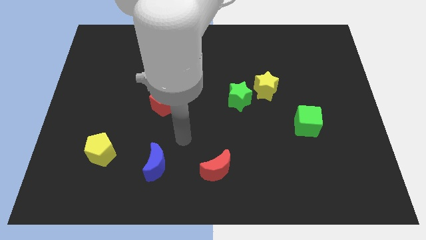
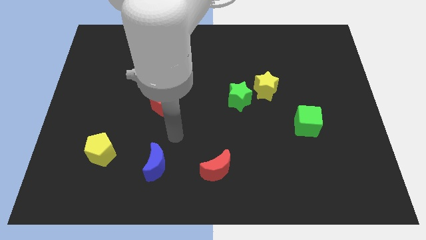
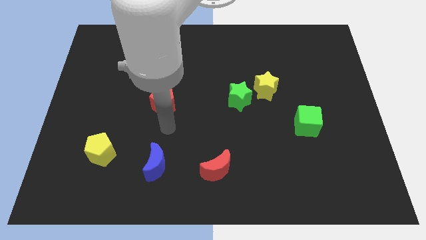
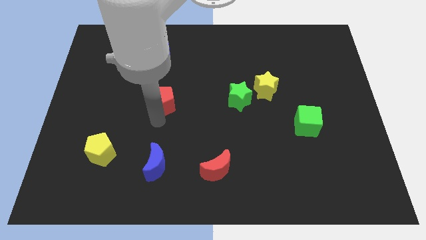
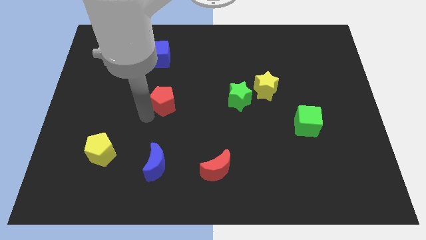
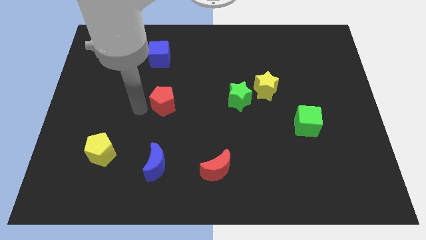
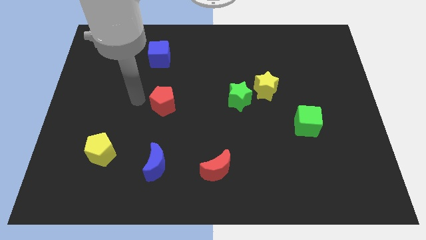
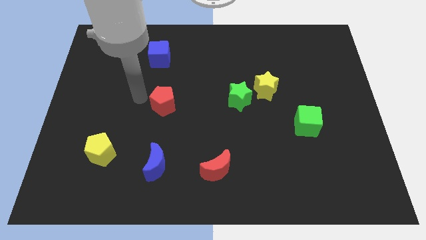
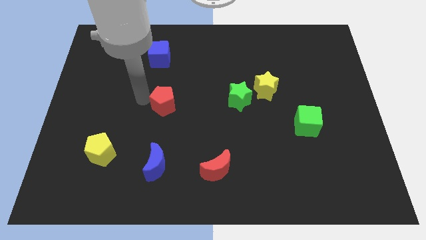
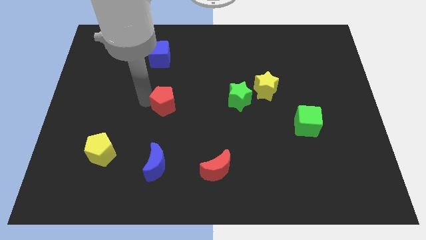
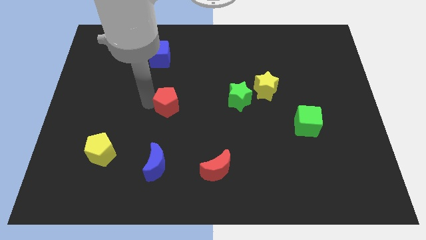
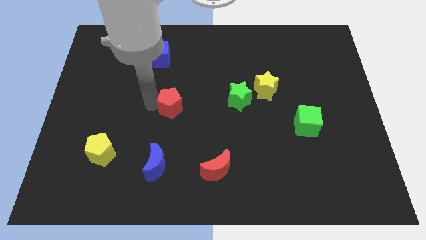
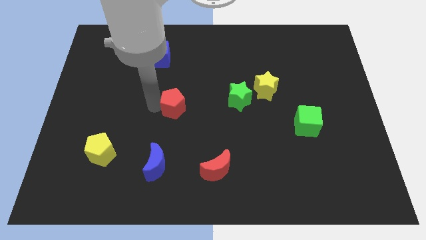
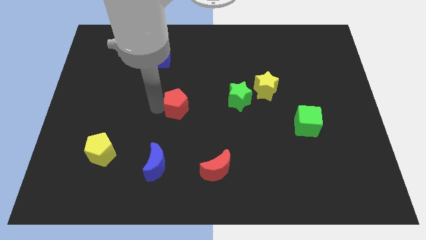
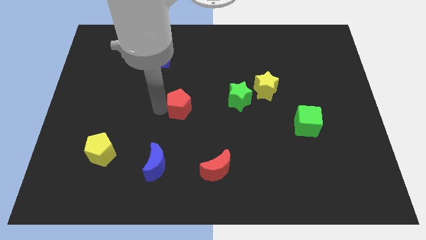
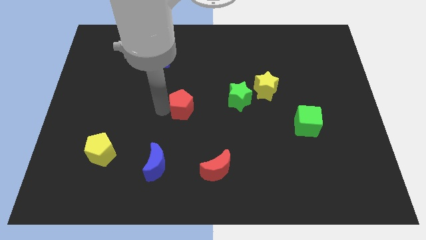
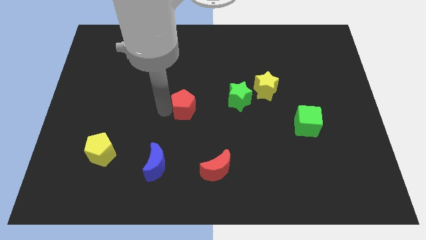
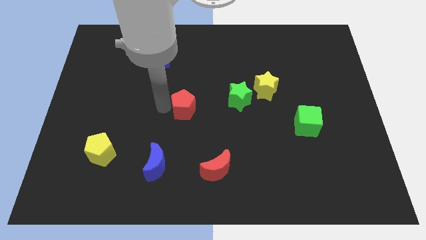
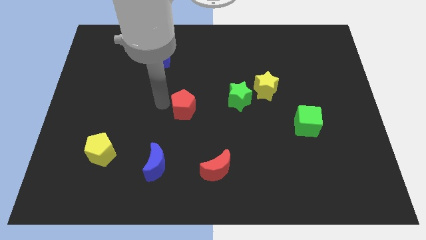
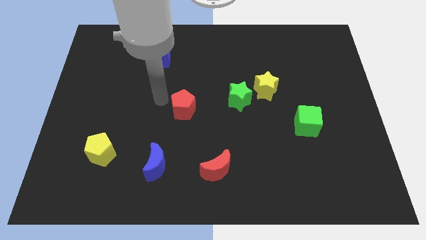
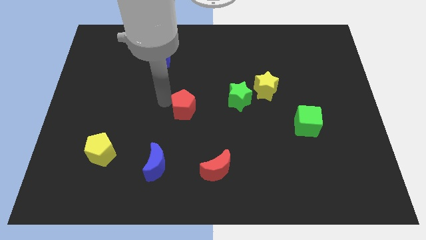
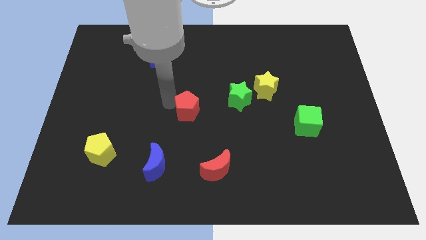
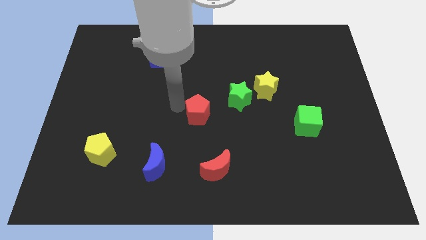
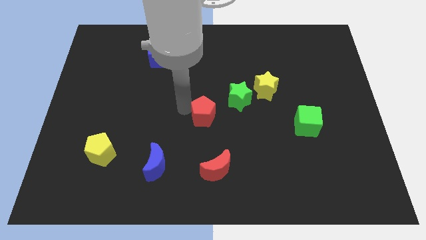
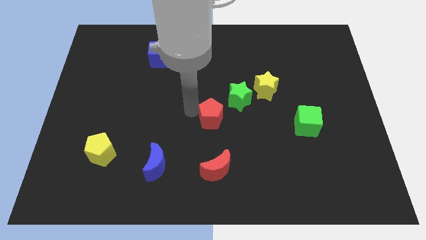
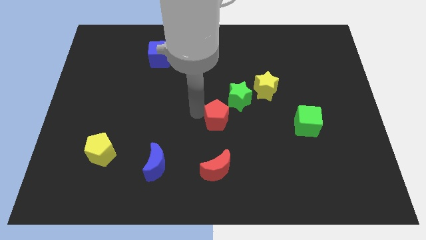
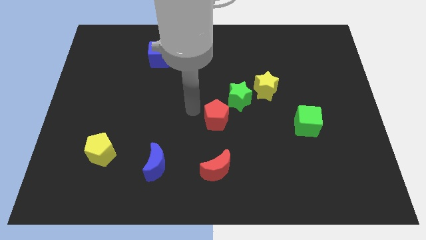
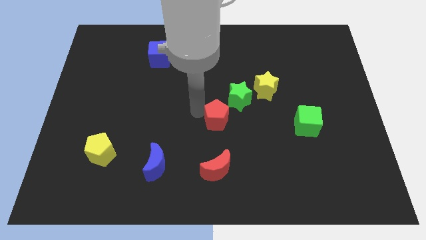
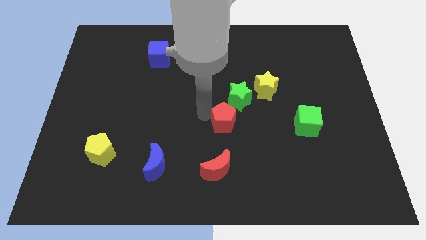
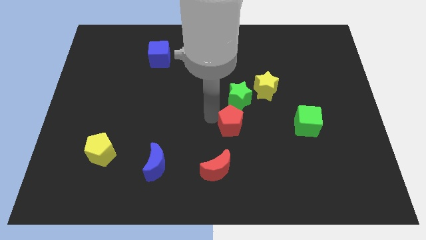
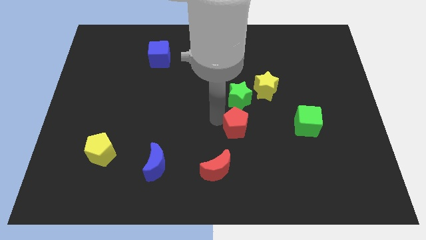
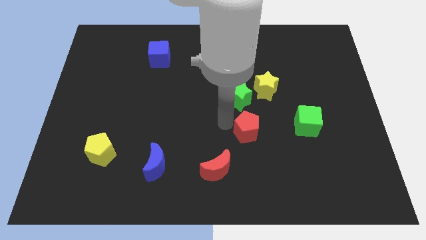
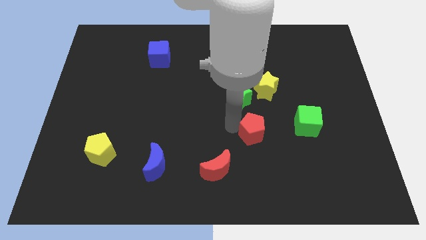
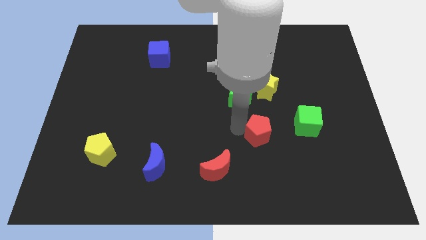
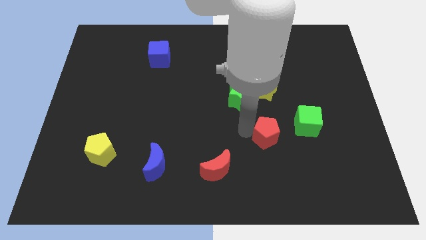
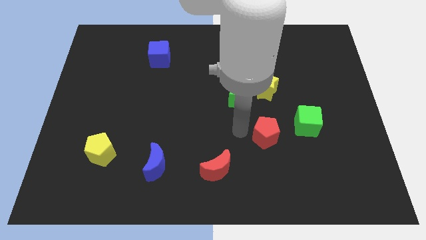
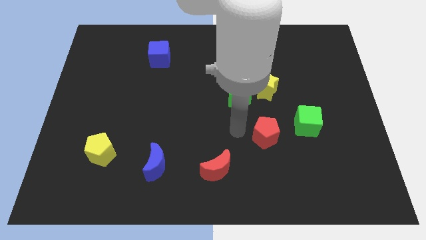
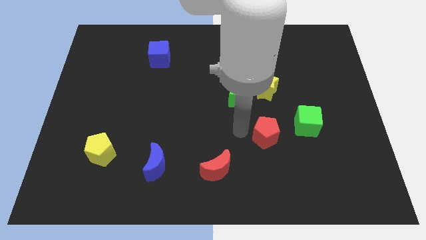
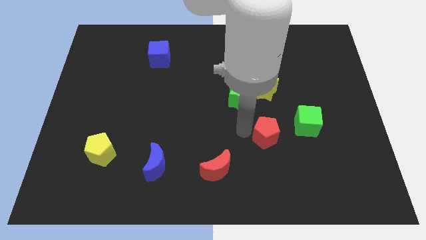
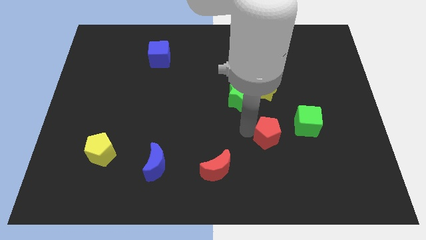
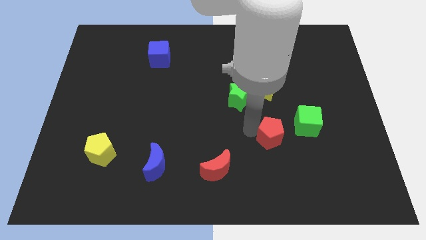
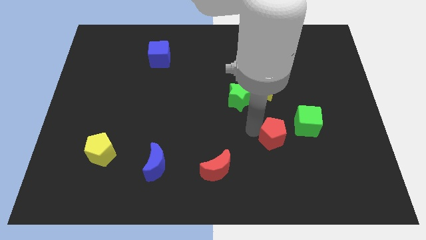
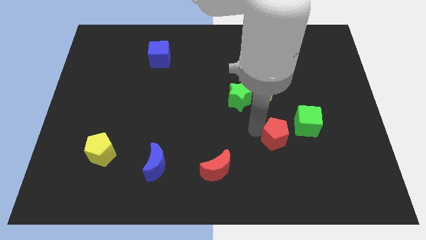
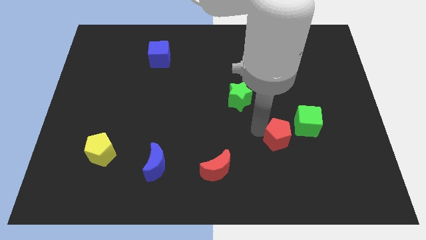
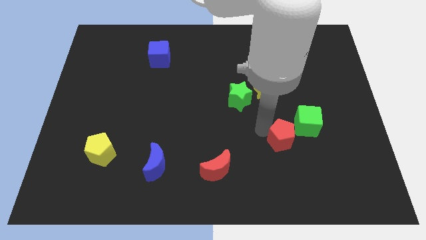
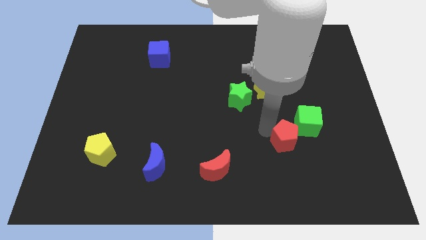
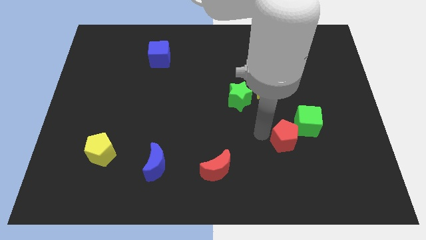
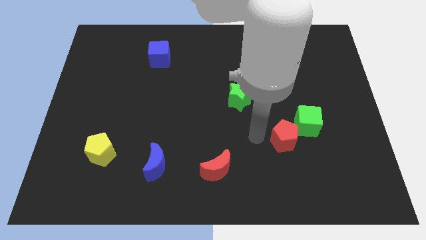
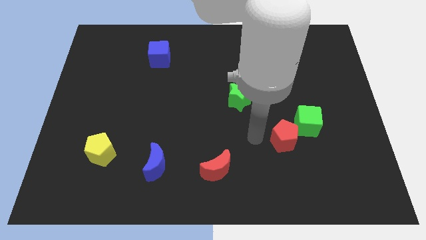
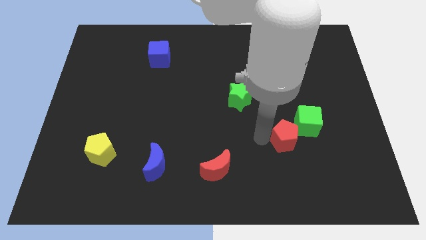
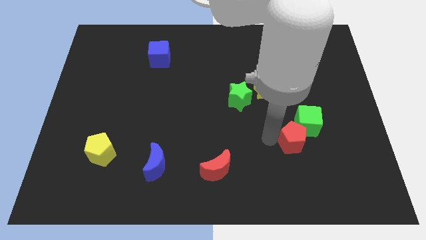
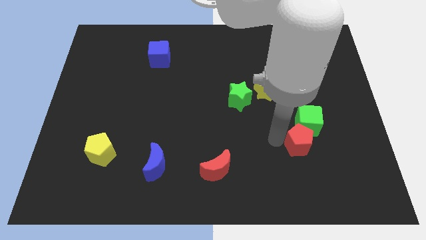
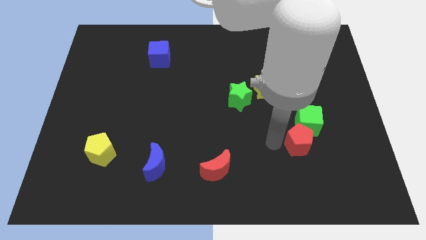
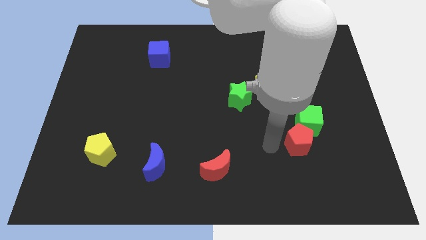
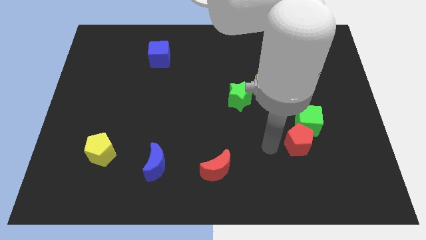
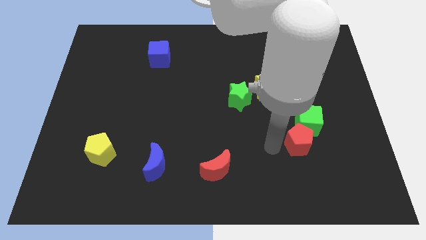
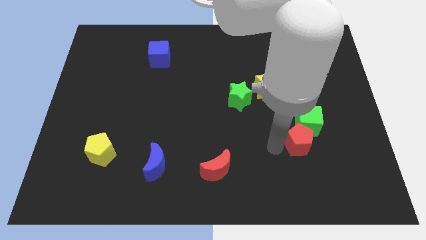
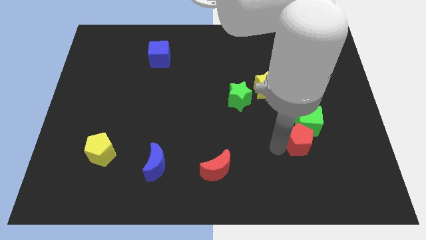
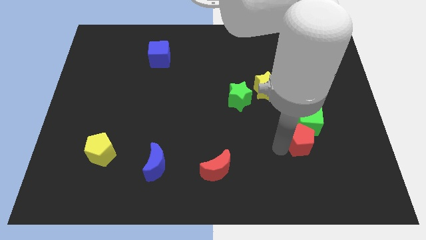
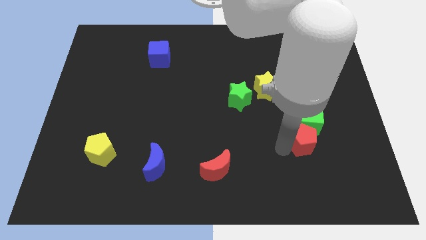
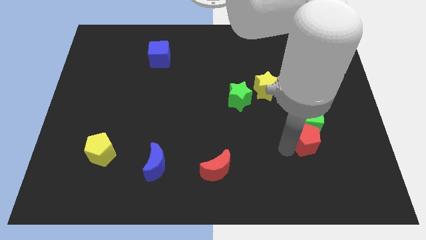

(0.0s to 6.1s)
move the red pentagon diagonally down and to the right of the green cube
